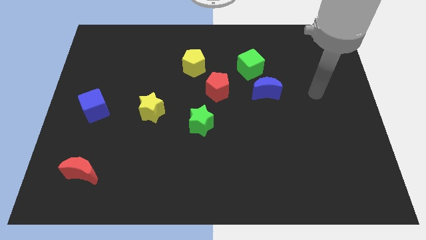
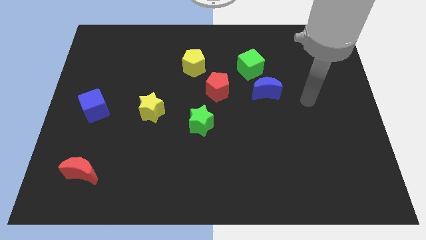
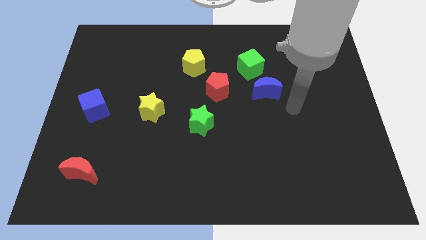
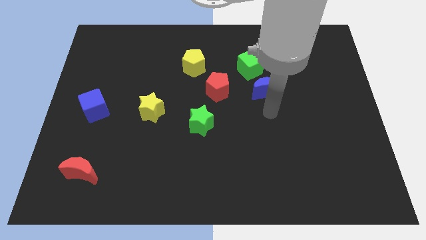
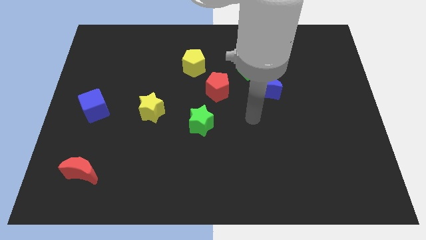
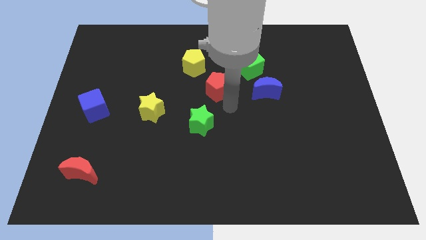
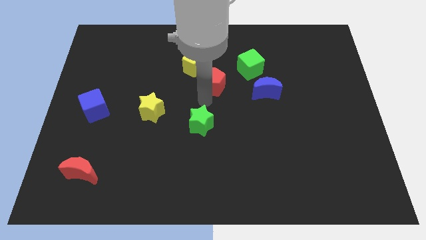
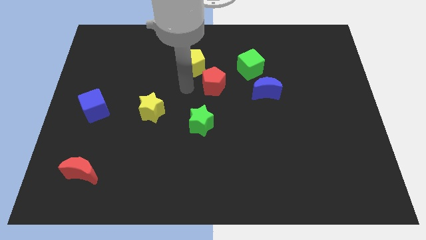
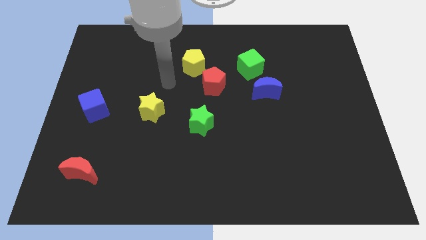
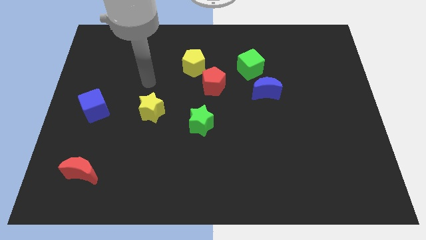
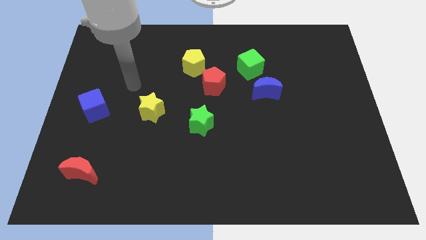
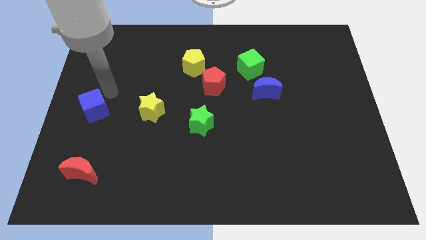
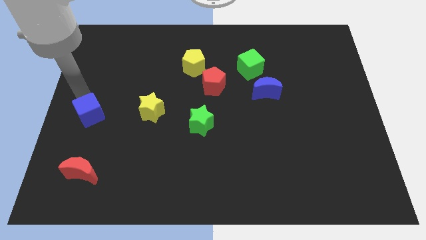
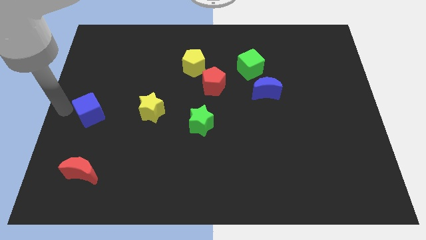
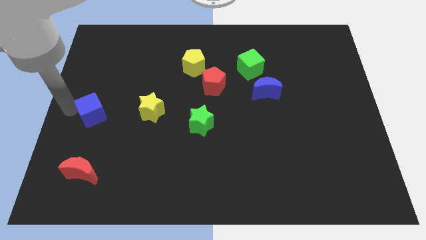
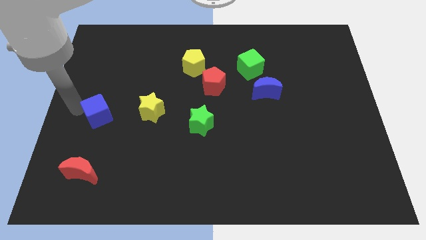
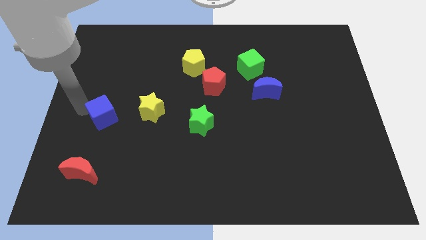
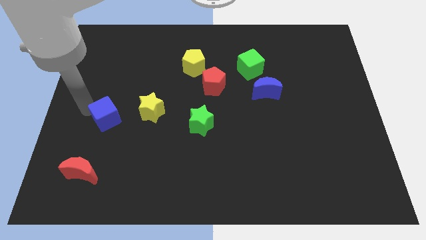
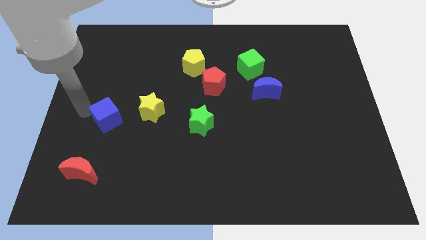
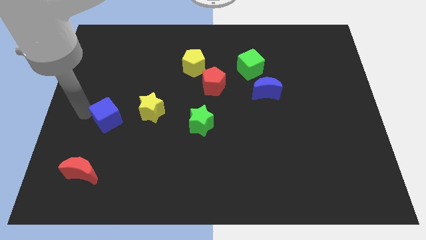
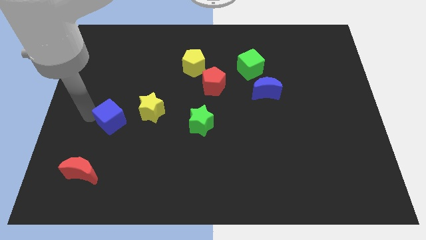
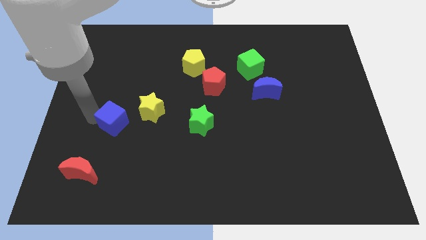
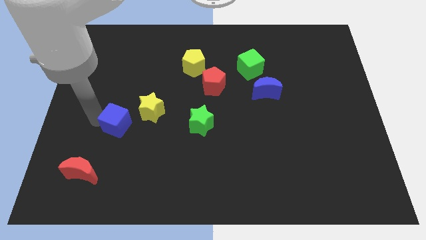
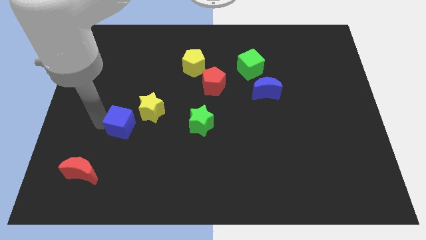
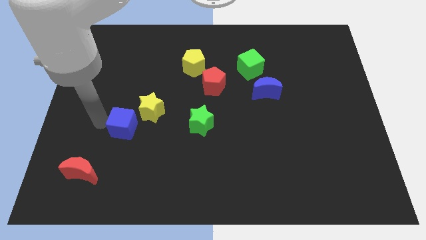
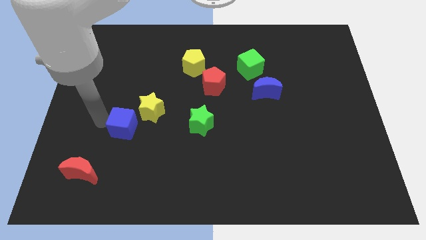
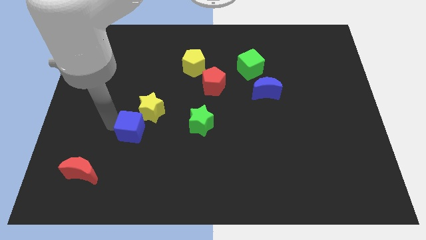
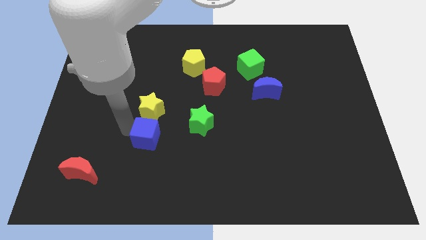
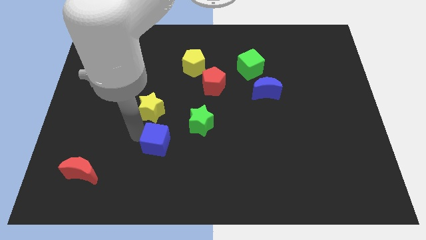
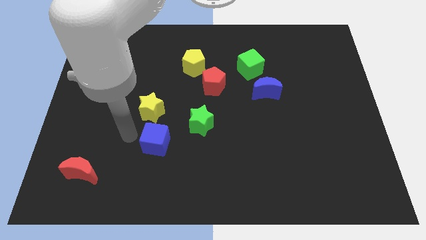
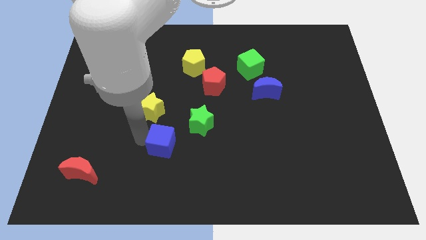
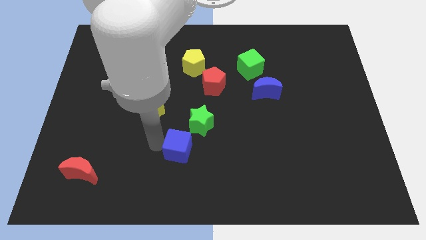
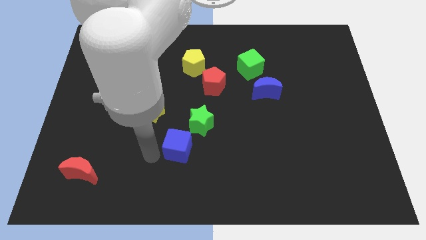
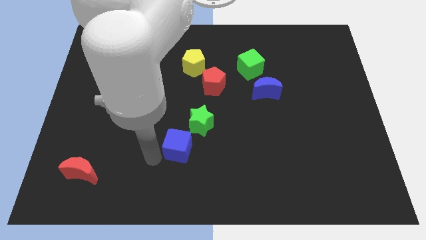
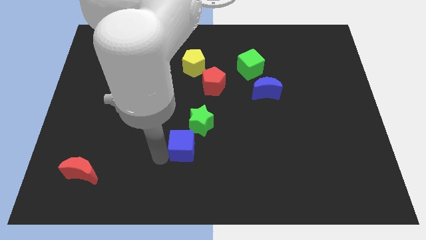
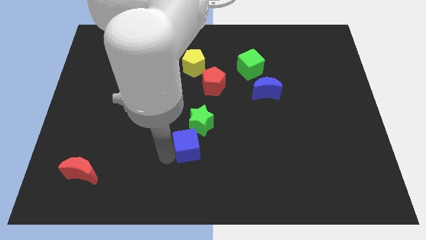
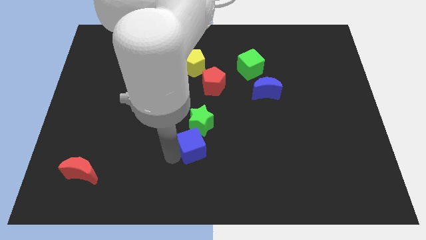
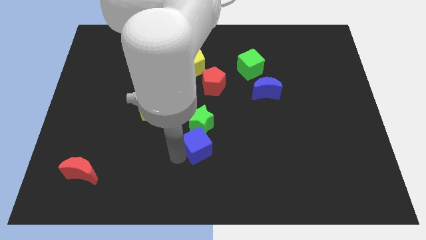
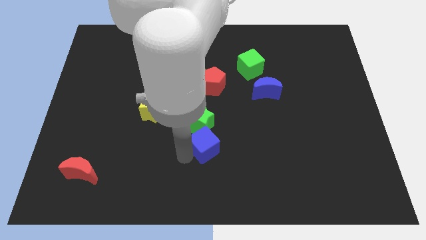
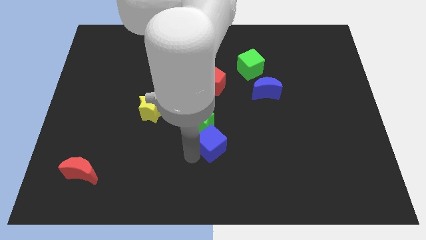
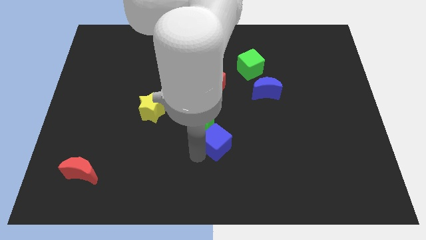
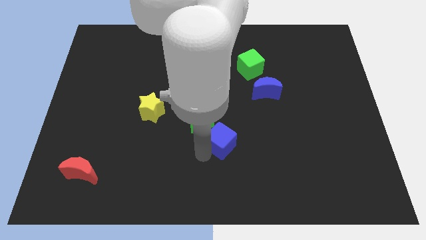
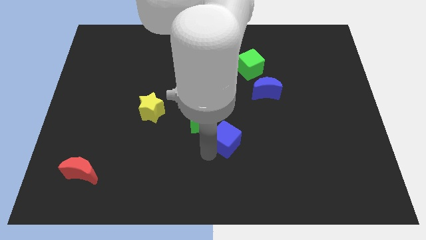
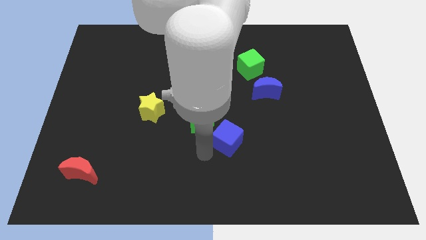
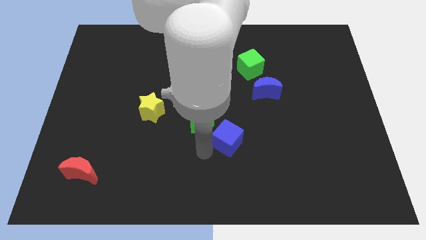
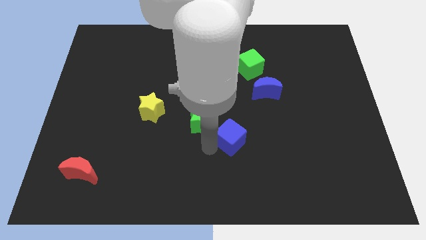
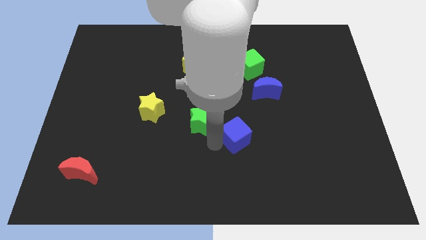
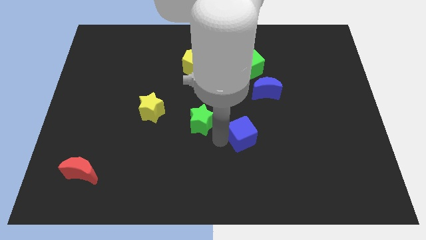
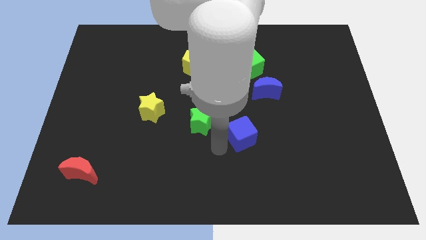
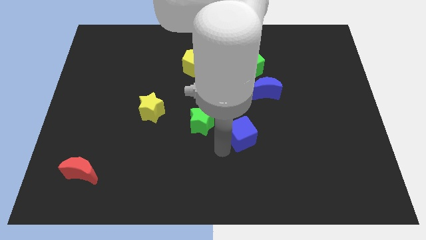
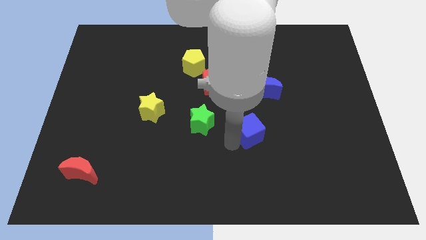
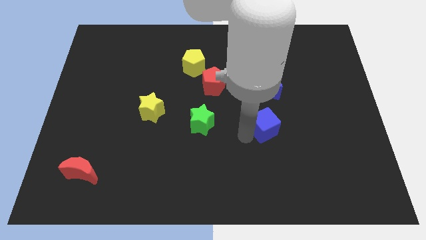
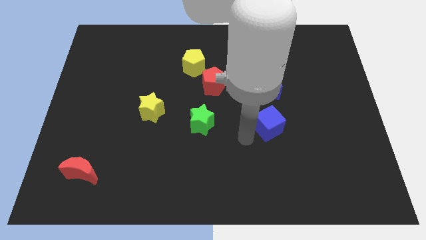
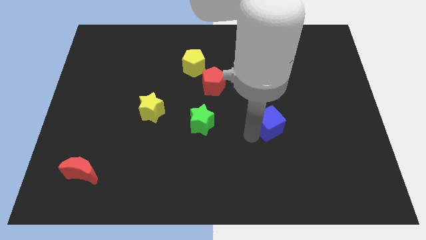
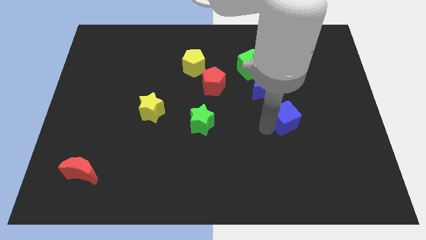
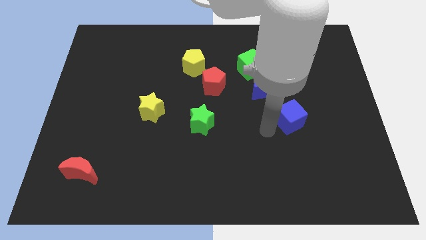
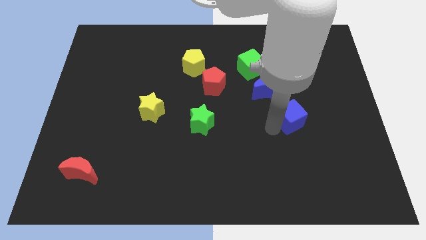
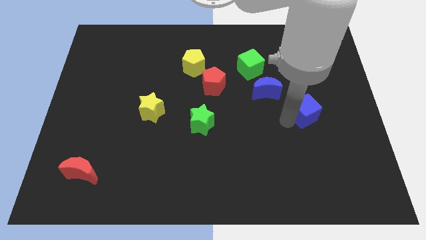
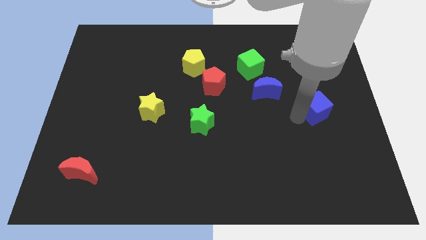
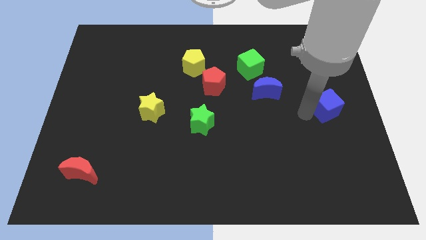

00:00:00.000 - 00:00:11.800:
slide the blue cube to the right side
